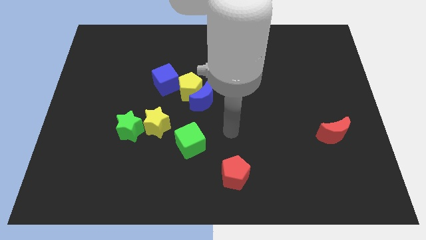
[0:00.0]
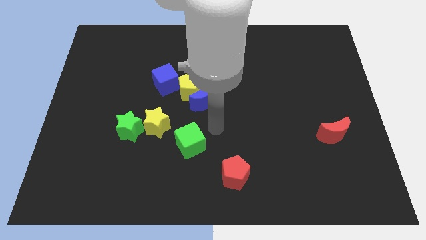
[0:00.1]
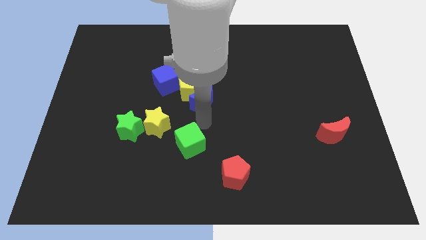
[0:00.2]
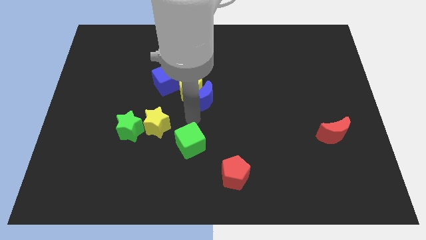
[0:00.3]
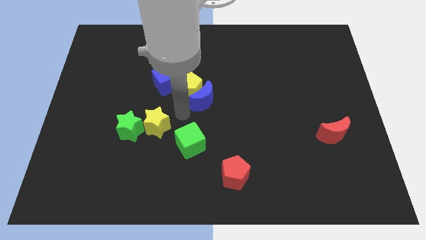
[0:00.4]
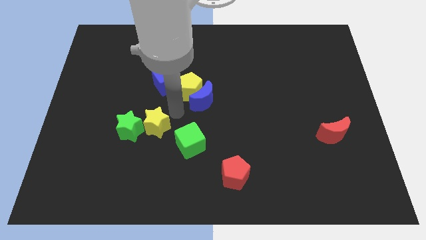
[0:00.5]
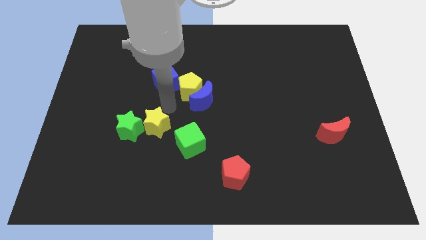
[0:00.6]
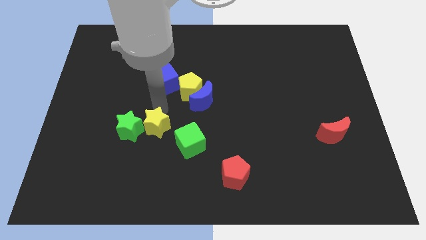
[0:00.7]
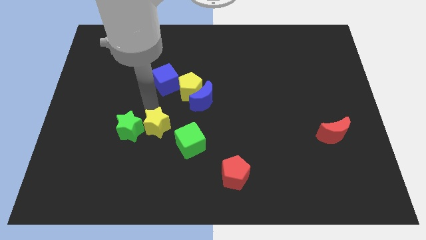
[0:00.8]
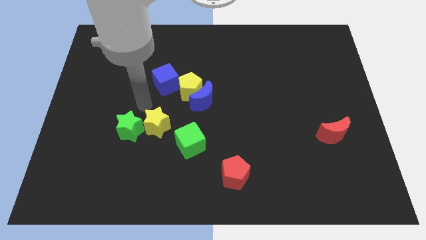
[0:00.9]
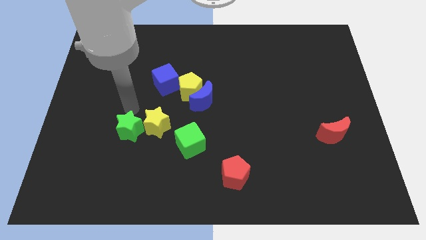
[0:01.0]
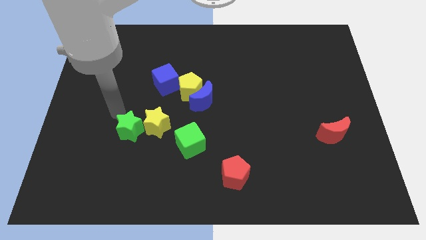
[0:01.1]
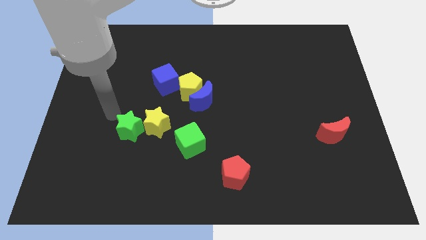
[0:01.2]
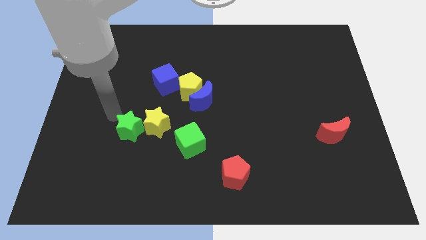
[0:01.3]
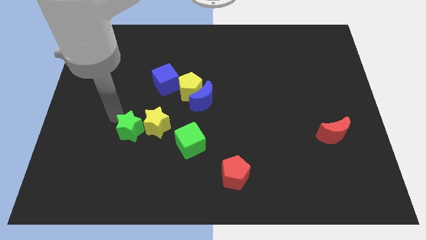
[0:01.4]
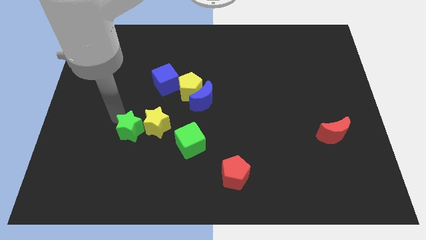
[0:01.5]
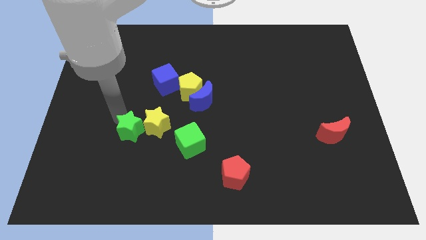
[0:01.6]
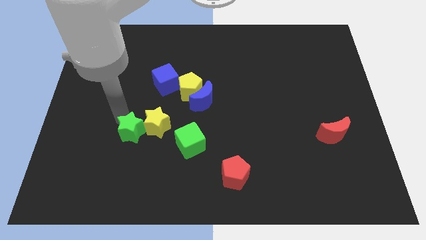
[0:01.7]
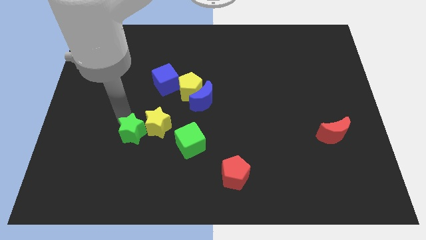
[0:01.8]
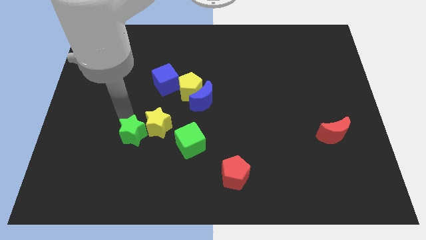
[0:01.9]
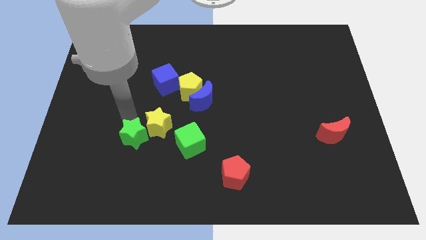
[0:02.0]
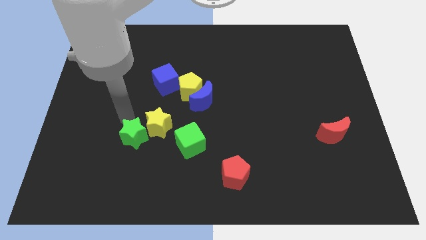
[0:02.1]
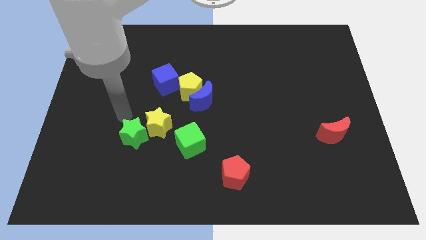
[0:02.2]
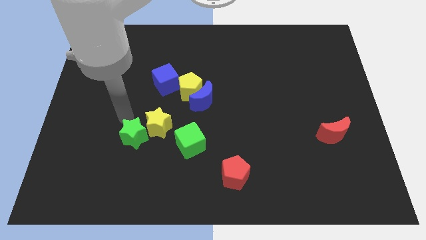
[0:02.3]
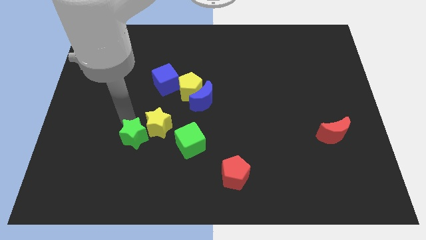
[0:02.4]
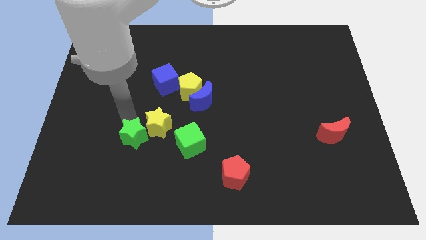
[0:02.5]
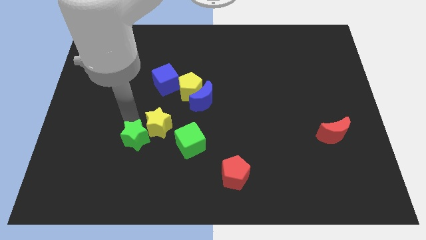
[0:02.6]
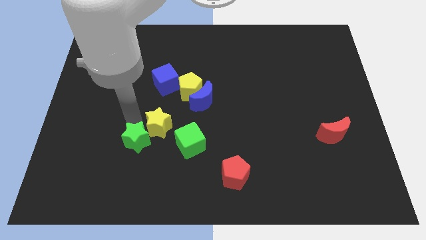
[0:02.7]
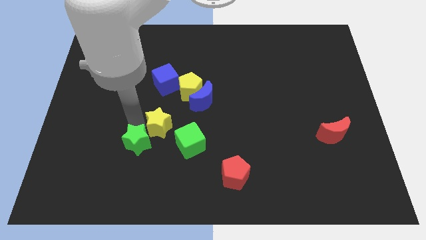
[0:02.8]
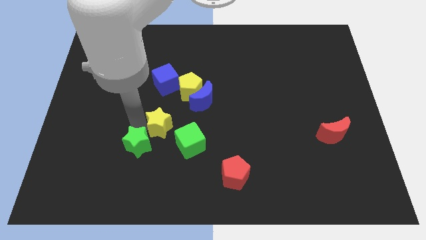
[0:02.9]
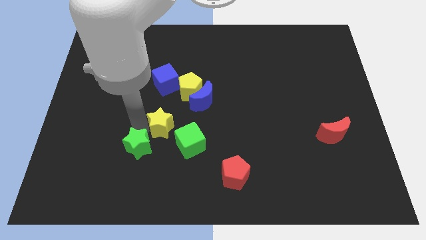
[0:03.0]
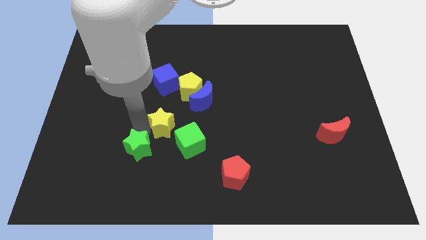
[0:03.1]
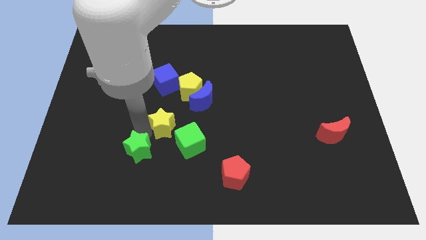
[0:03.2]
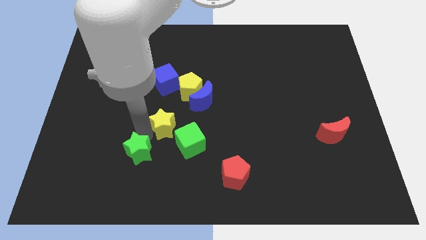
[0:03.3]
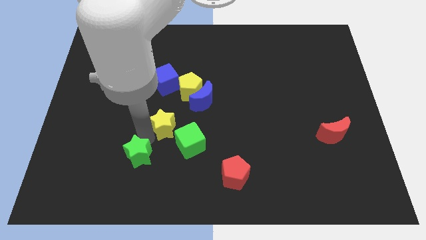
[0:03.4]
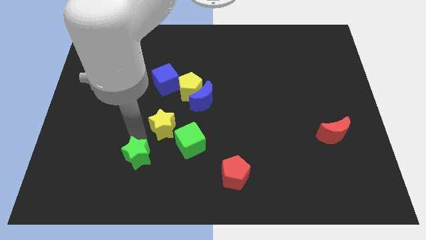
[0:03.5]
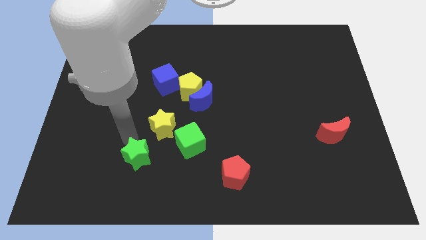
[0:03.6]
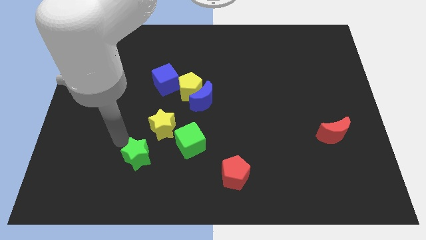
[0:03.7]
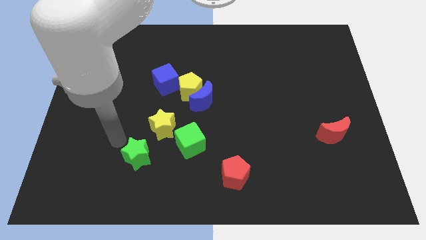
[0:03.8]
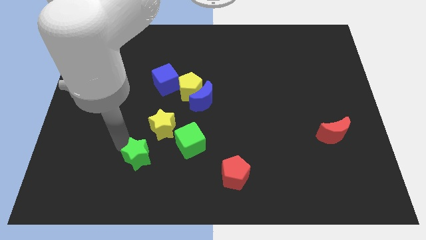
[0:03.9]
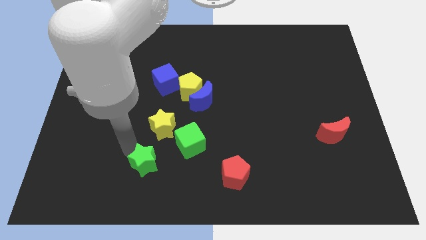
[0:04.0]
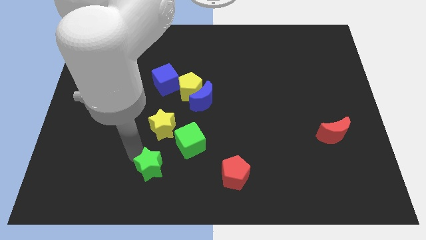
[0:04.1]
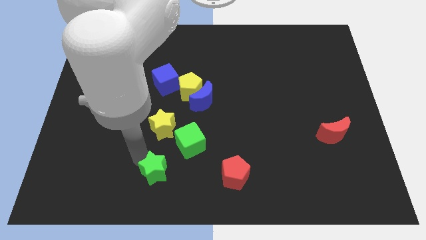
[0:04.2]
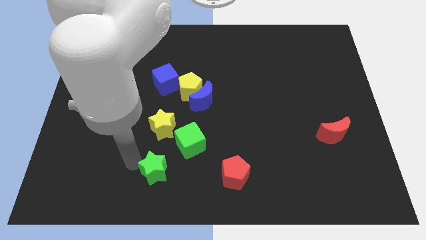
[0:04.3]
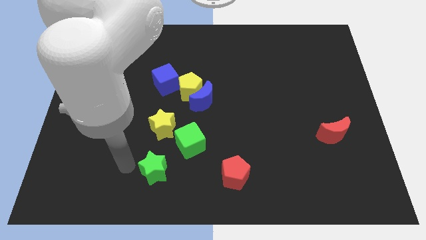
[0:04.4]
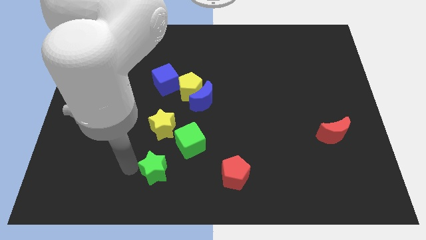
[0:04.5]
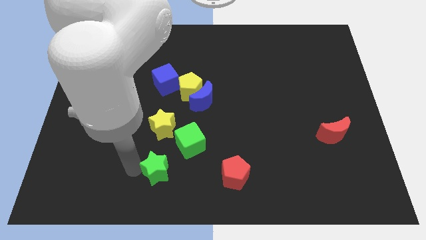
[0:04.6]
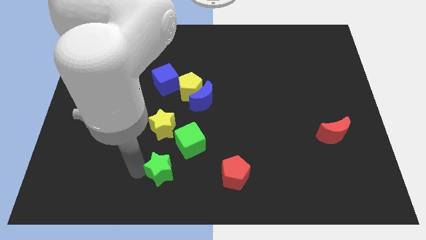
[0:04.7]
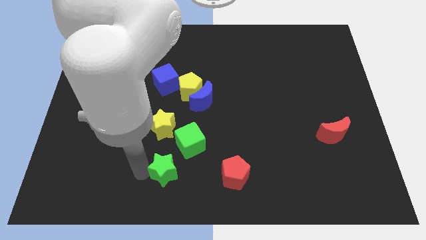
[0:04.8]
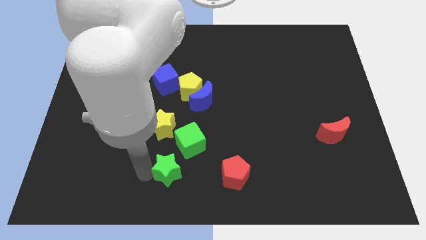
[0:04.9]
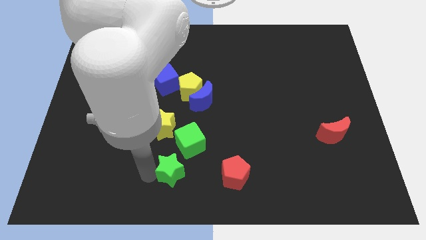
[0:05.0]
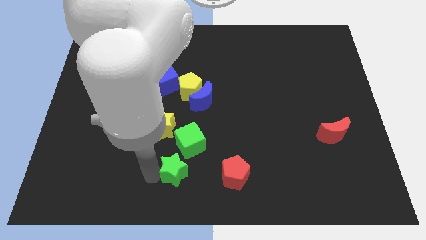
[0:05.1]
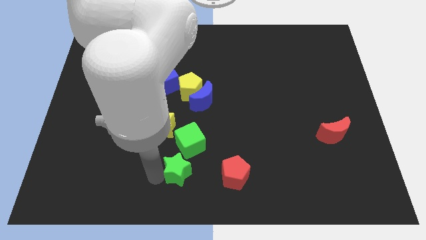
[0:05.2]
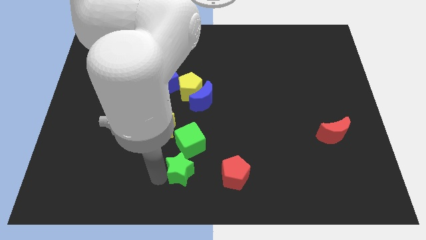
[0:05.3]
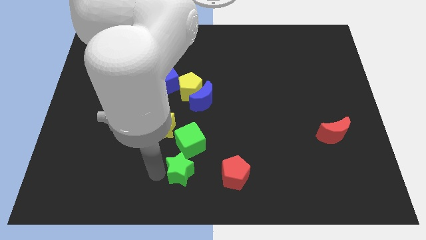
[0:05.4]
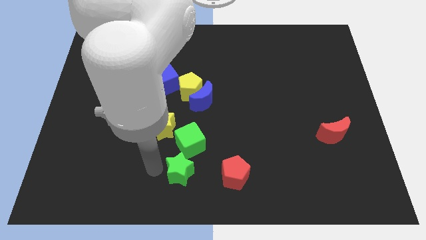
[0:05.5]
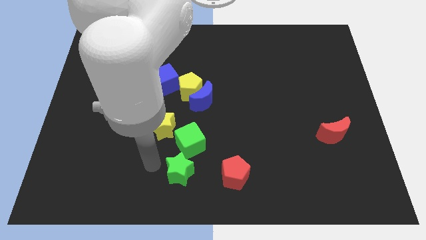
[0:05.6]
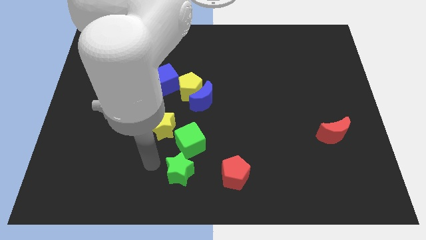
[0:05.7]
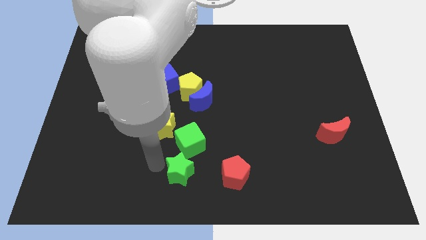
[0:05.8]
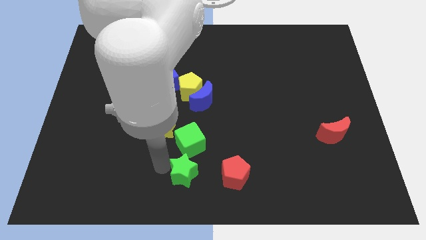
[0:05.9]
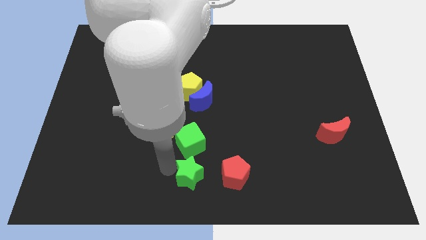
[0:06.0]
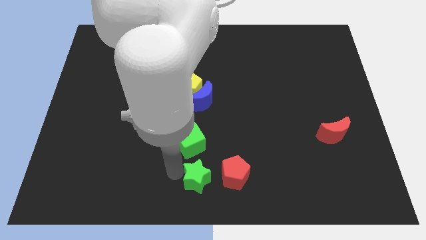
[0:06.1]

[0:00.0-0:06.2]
slide the green star to the bottom right side of the green cube

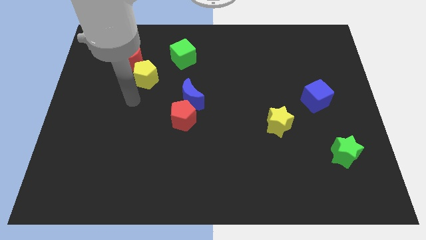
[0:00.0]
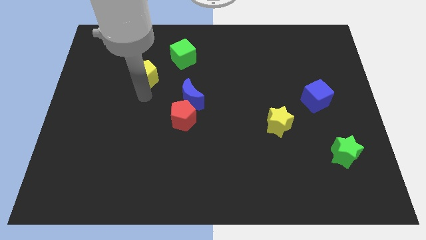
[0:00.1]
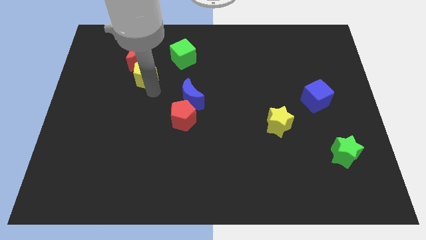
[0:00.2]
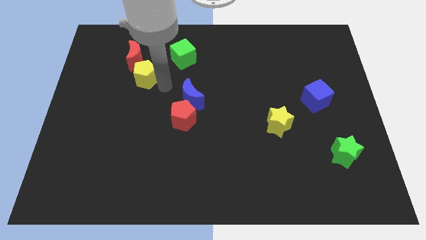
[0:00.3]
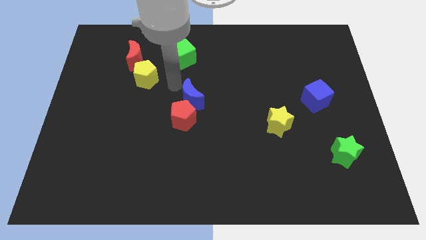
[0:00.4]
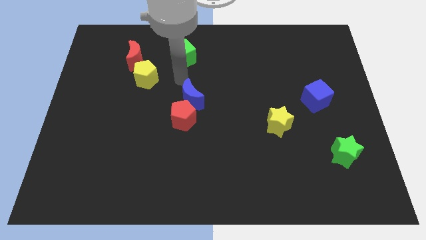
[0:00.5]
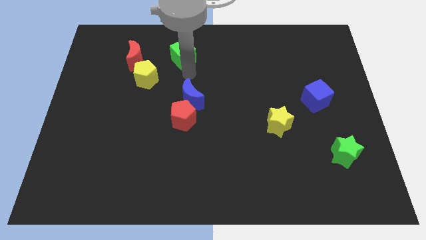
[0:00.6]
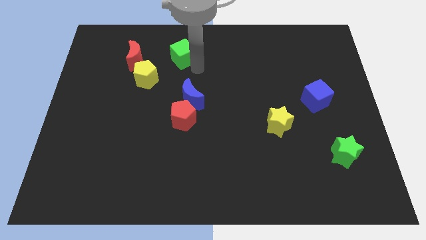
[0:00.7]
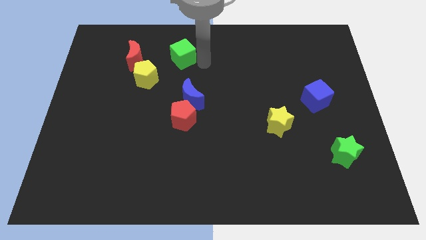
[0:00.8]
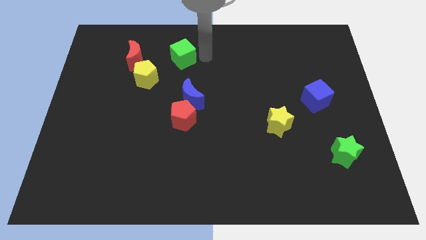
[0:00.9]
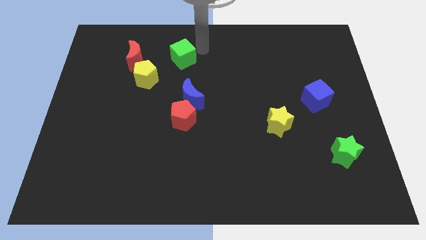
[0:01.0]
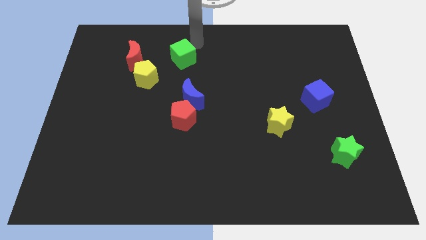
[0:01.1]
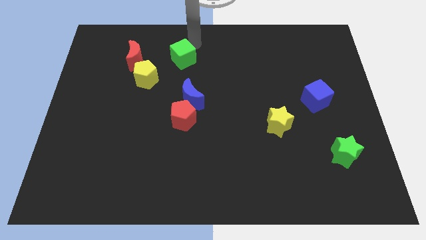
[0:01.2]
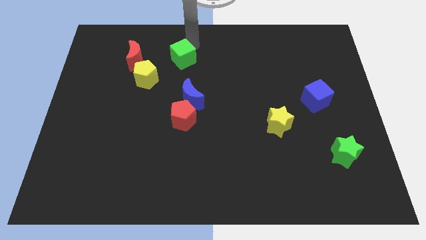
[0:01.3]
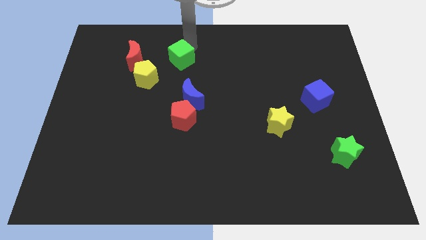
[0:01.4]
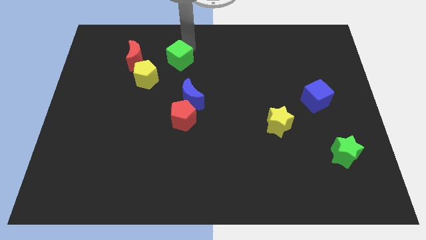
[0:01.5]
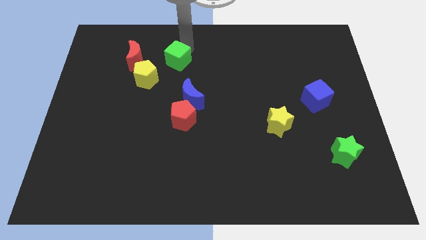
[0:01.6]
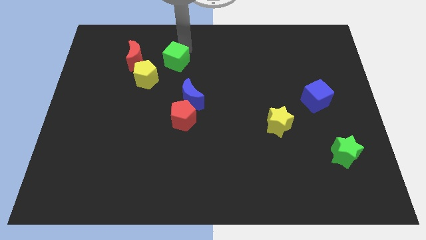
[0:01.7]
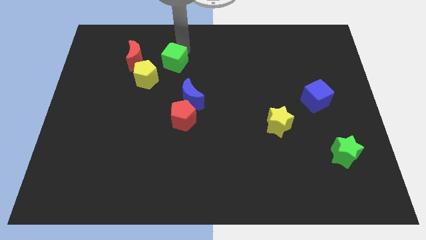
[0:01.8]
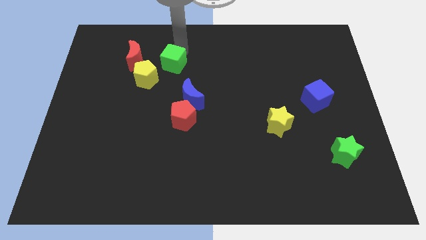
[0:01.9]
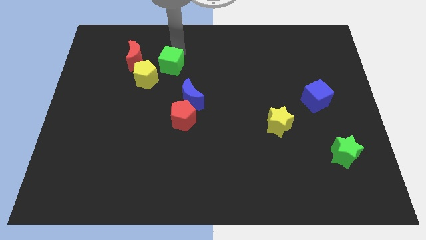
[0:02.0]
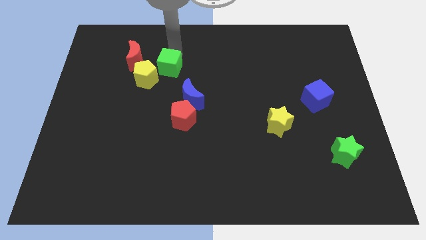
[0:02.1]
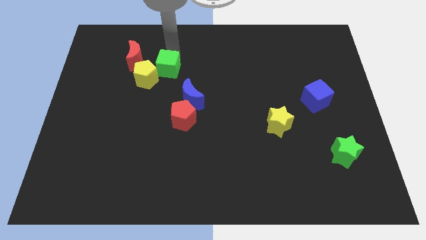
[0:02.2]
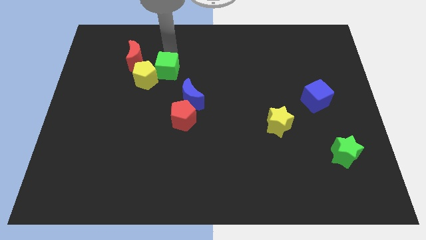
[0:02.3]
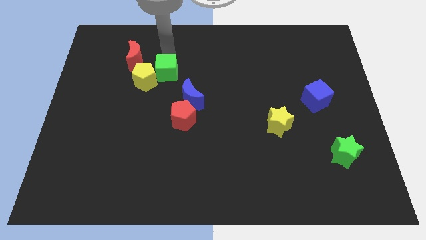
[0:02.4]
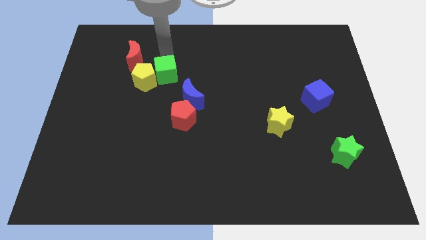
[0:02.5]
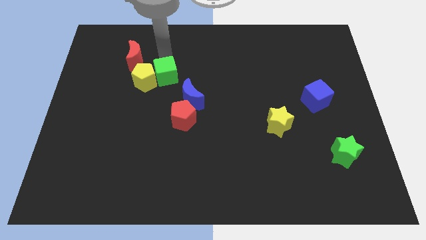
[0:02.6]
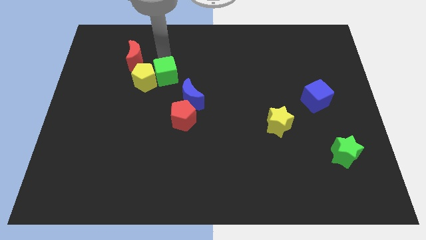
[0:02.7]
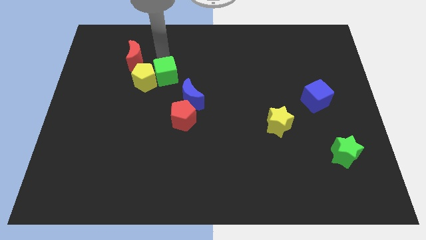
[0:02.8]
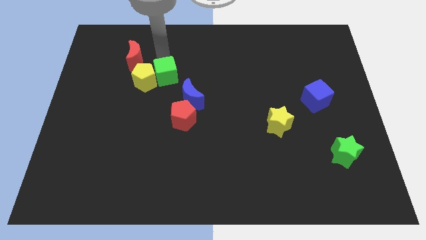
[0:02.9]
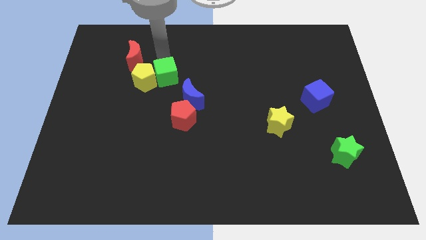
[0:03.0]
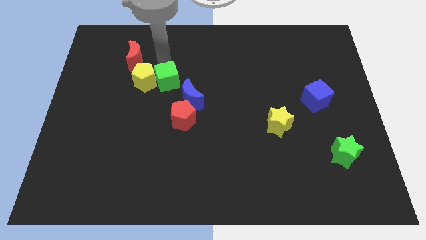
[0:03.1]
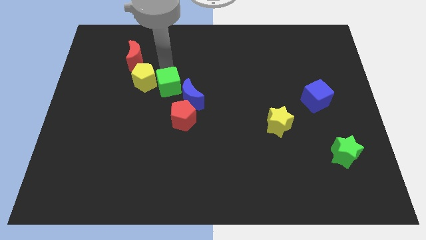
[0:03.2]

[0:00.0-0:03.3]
put the green cube to the top left side of the red pentagon
